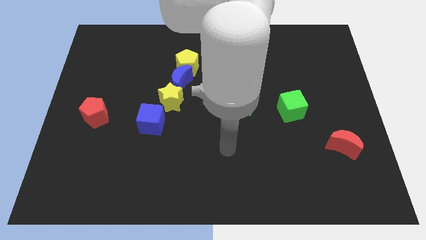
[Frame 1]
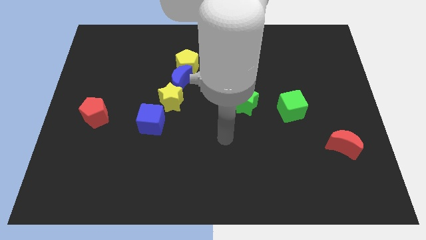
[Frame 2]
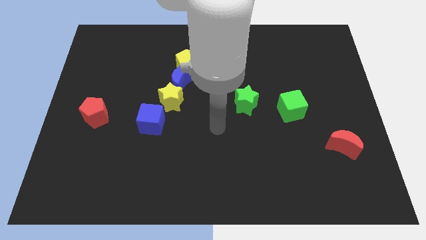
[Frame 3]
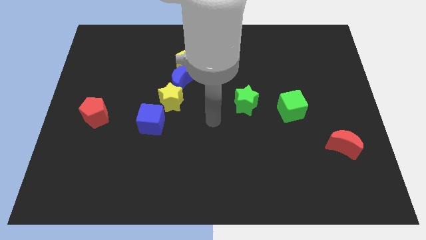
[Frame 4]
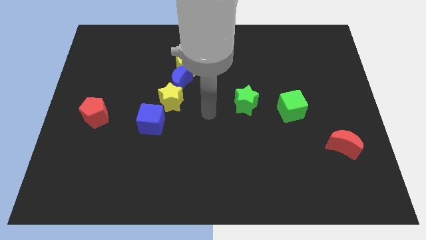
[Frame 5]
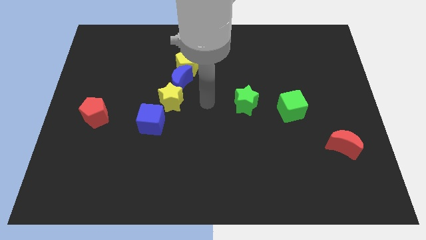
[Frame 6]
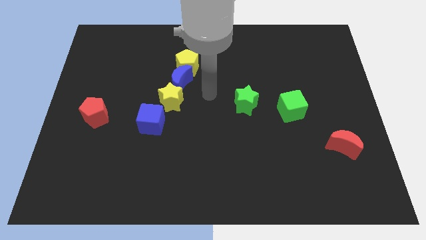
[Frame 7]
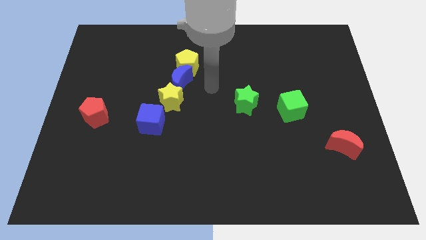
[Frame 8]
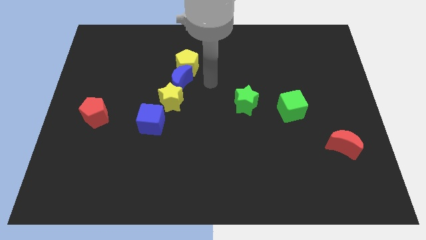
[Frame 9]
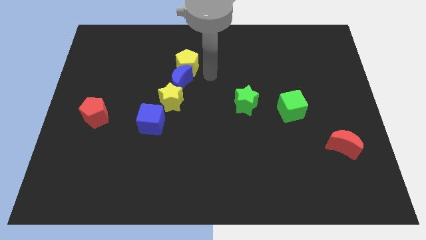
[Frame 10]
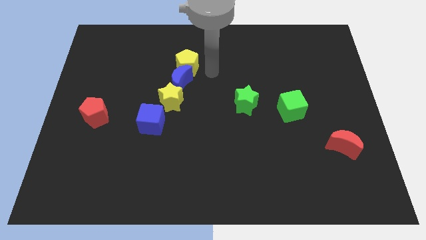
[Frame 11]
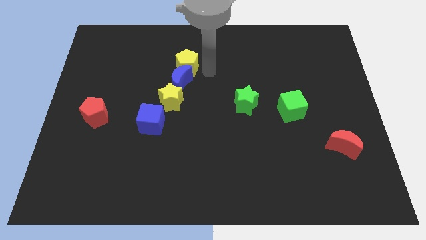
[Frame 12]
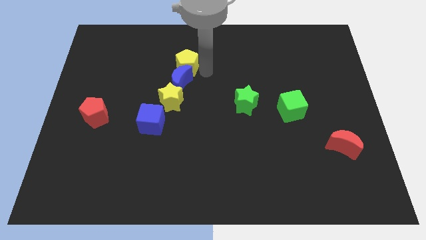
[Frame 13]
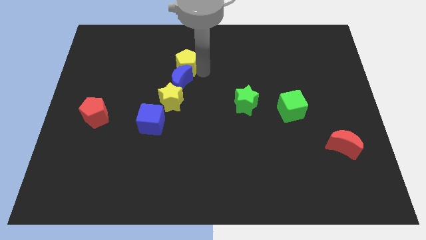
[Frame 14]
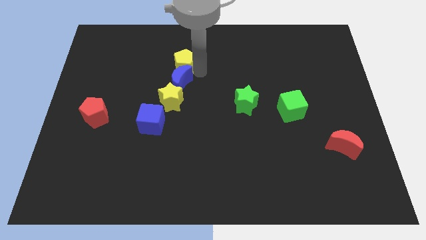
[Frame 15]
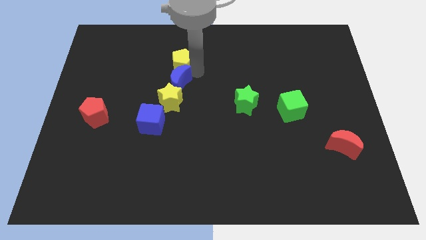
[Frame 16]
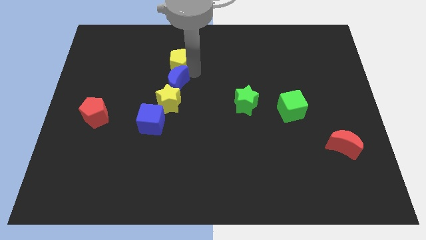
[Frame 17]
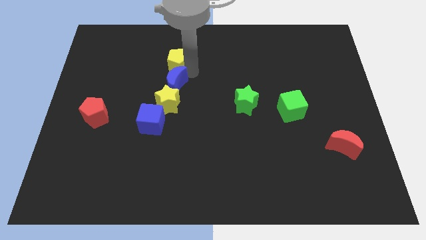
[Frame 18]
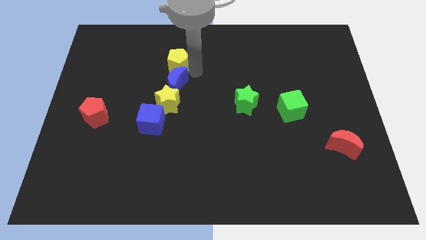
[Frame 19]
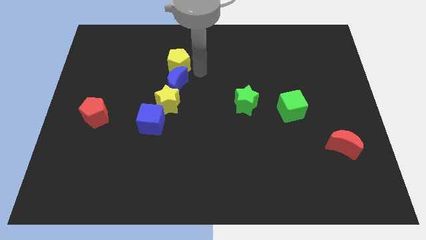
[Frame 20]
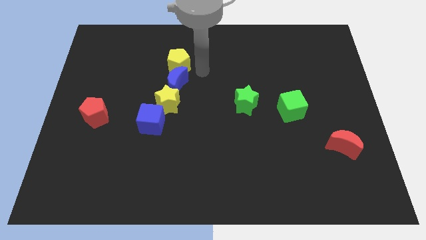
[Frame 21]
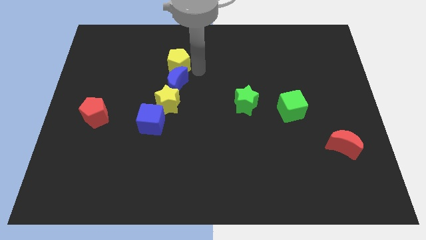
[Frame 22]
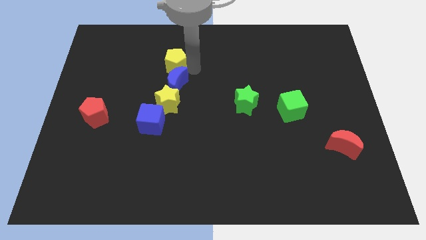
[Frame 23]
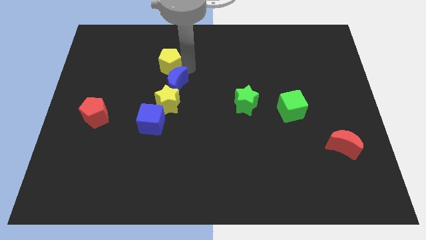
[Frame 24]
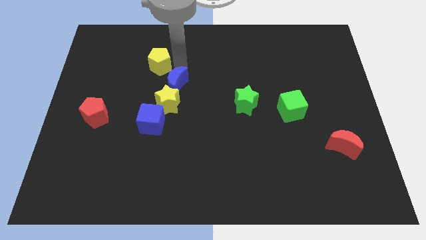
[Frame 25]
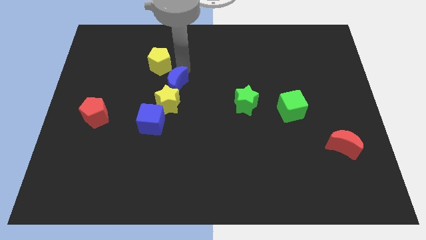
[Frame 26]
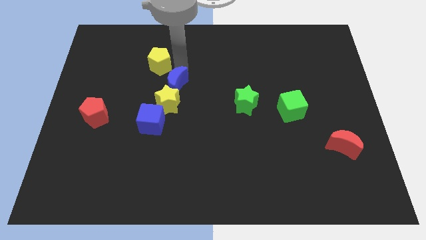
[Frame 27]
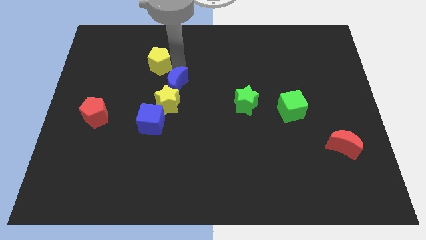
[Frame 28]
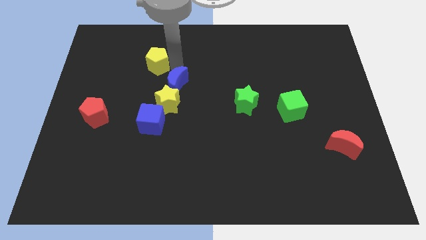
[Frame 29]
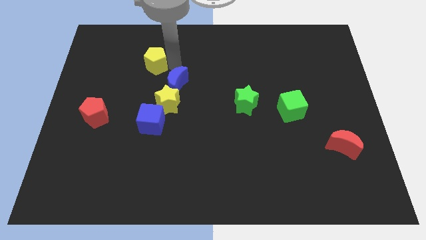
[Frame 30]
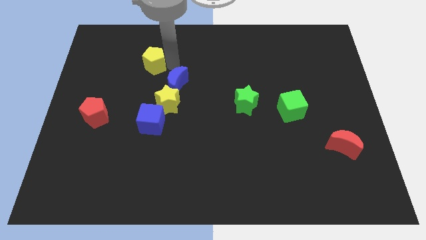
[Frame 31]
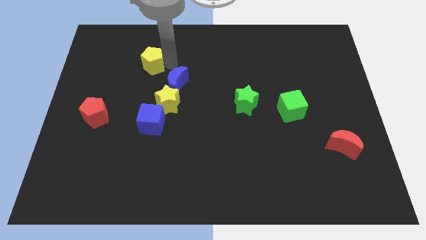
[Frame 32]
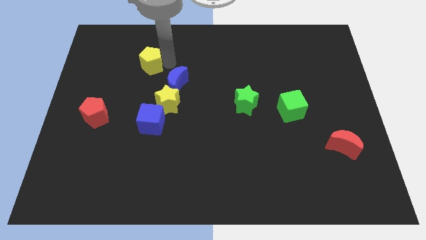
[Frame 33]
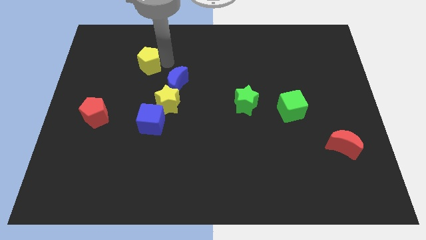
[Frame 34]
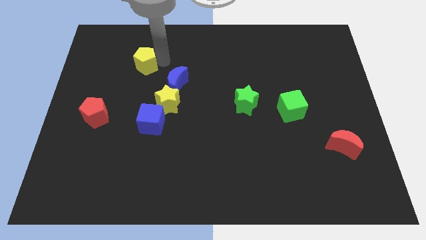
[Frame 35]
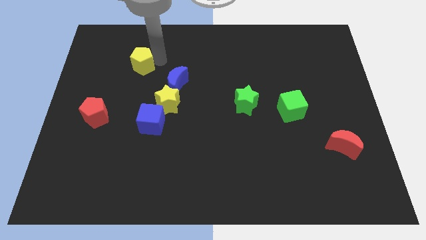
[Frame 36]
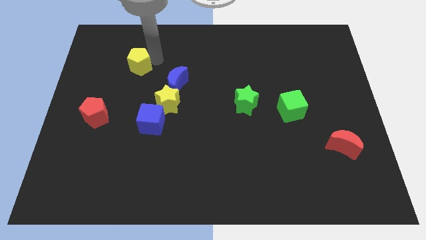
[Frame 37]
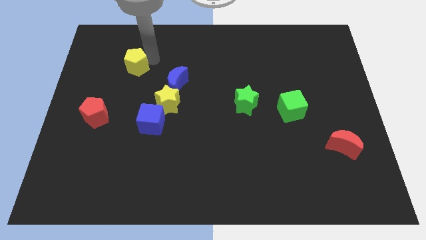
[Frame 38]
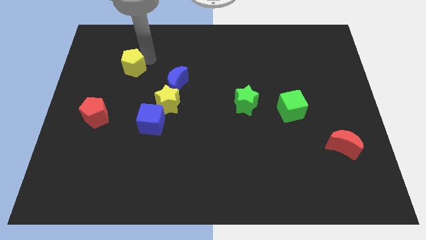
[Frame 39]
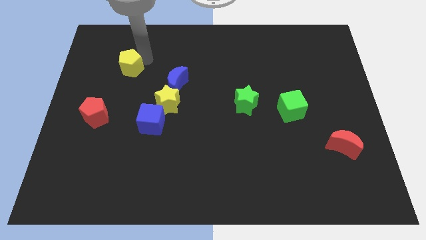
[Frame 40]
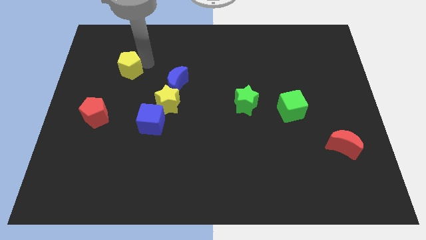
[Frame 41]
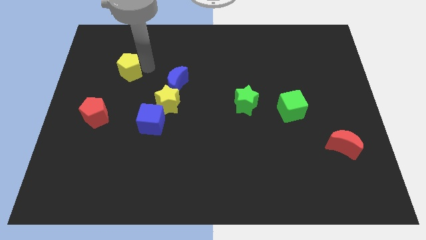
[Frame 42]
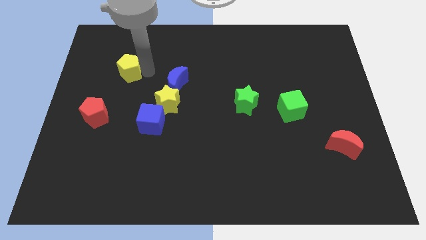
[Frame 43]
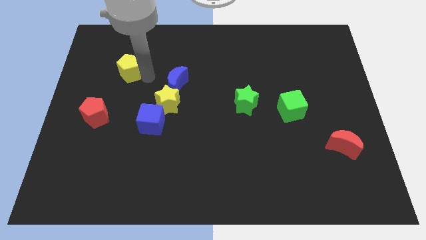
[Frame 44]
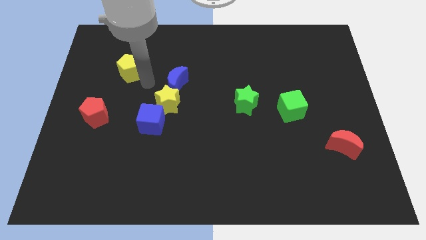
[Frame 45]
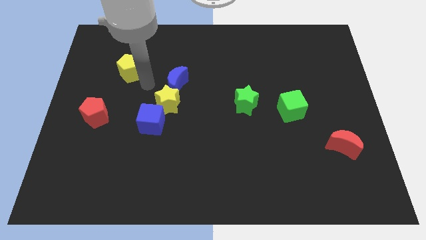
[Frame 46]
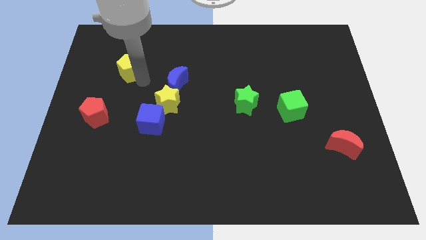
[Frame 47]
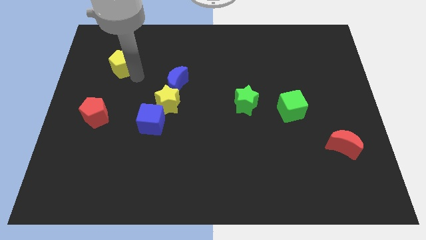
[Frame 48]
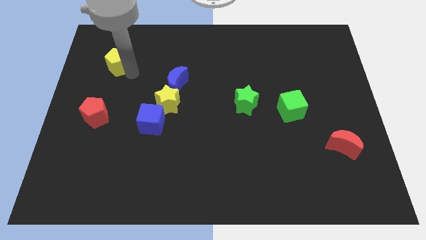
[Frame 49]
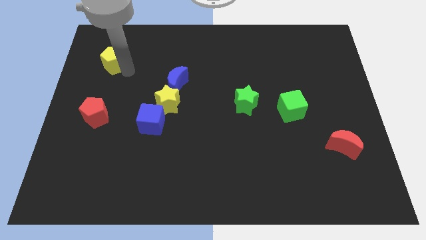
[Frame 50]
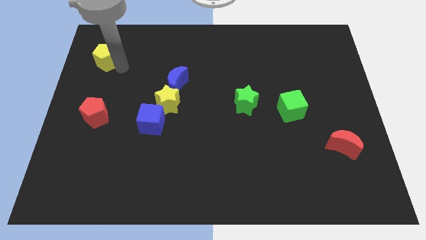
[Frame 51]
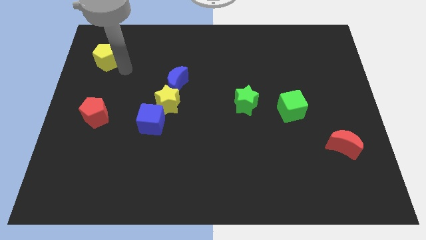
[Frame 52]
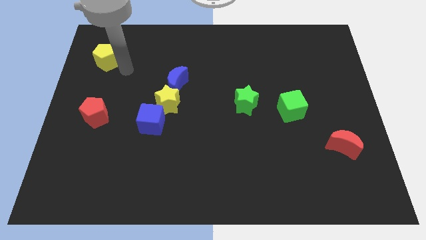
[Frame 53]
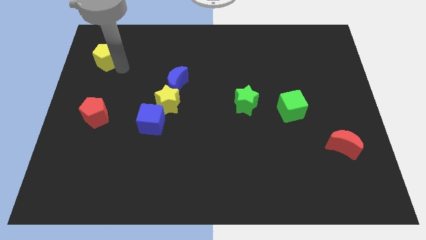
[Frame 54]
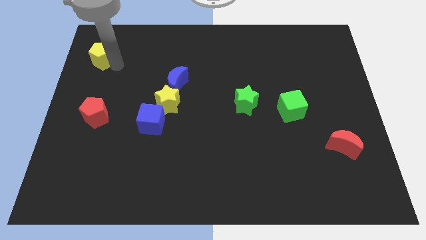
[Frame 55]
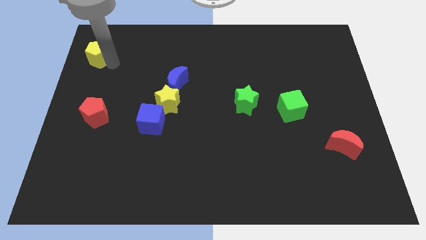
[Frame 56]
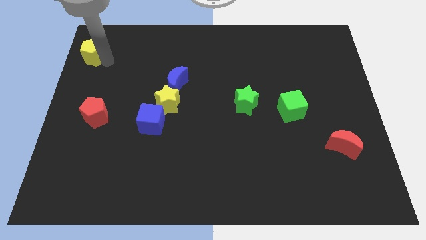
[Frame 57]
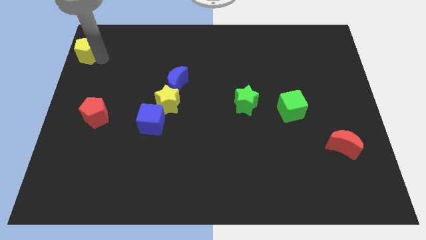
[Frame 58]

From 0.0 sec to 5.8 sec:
put the yellow pentagon to the top left corner
